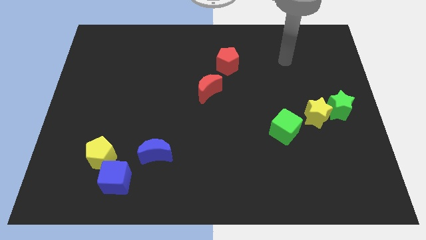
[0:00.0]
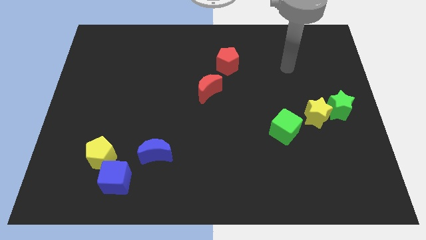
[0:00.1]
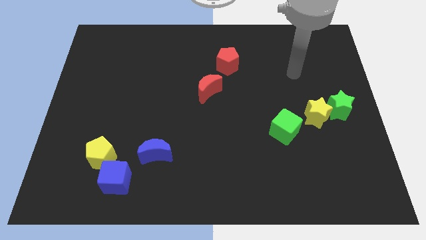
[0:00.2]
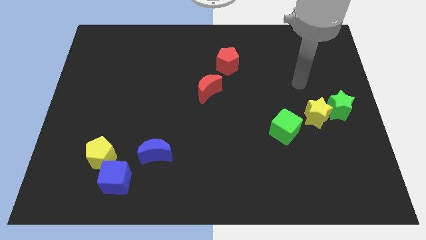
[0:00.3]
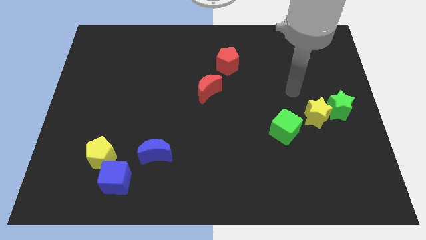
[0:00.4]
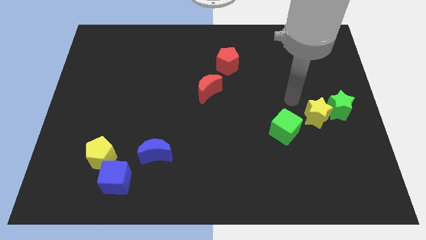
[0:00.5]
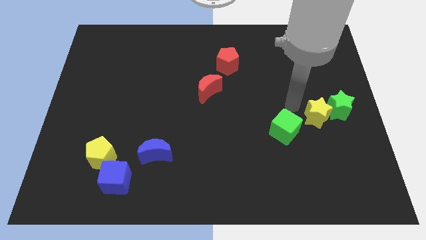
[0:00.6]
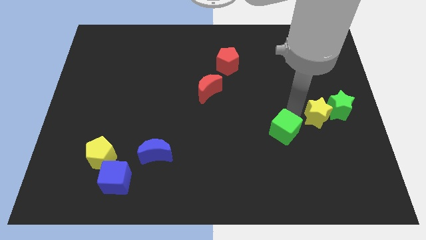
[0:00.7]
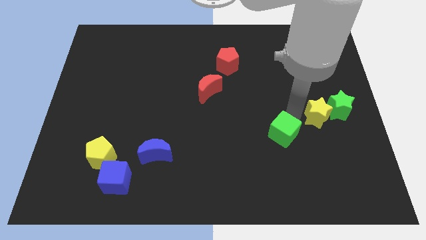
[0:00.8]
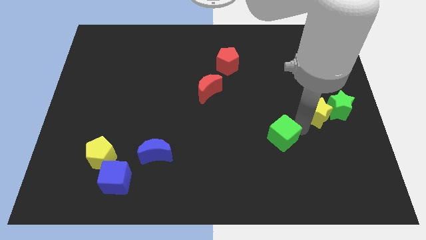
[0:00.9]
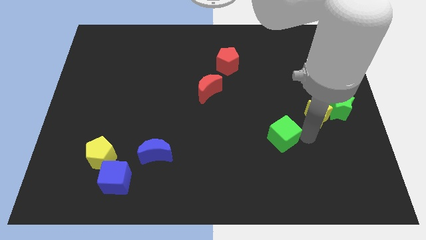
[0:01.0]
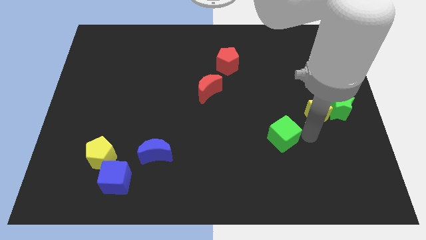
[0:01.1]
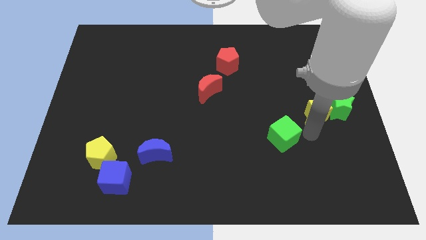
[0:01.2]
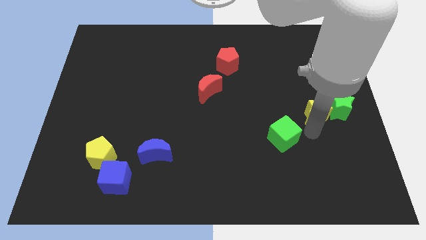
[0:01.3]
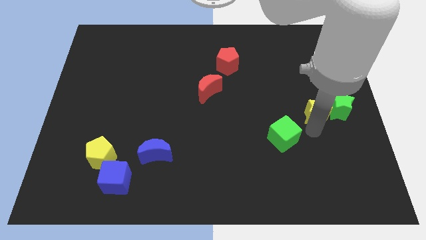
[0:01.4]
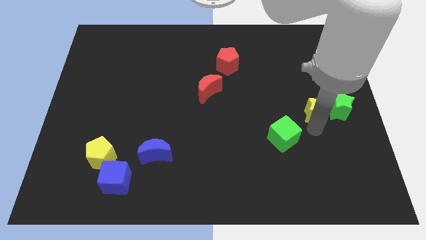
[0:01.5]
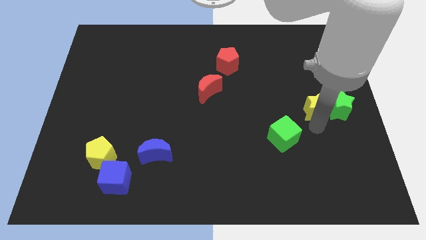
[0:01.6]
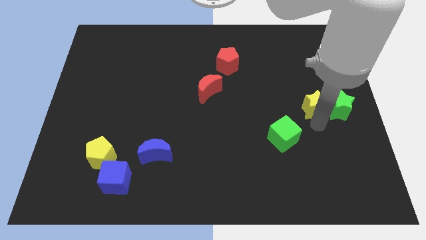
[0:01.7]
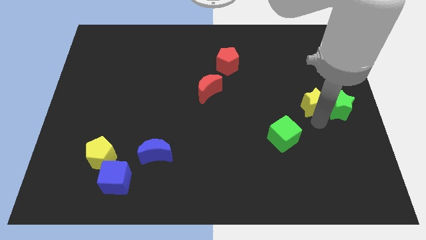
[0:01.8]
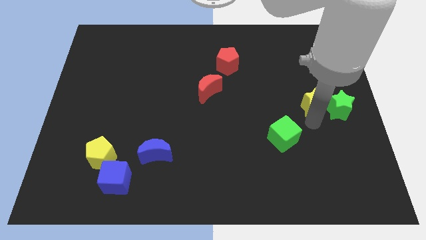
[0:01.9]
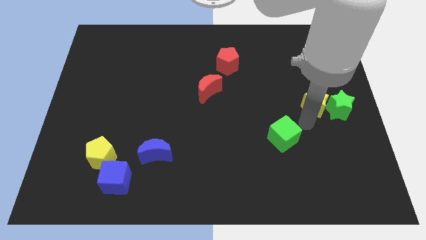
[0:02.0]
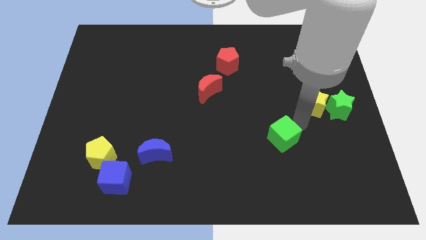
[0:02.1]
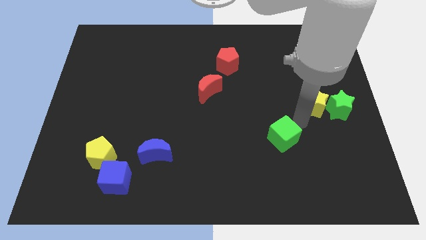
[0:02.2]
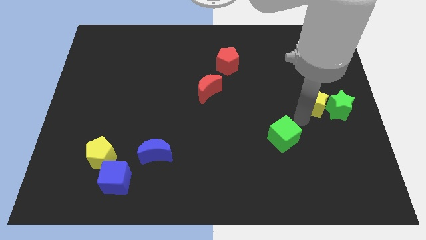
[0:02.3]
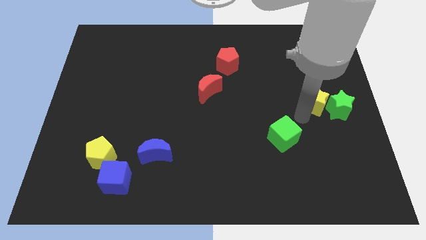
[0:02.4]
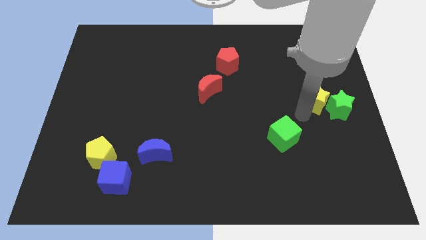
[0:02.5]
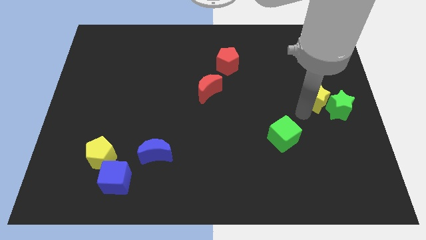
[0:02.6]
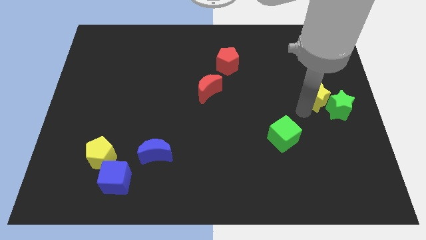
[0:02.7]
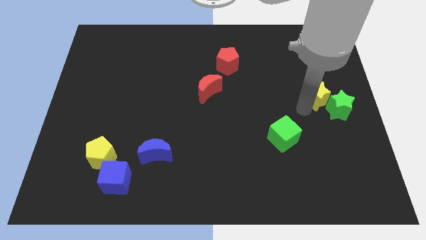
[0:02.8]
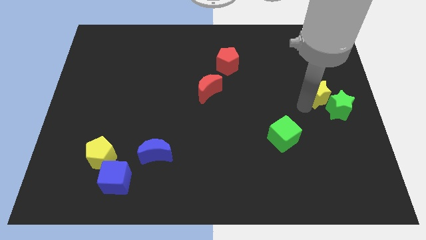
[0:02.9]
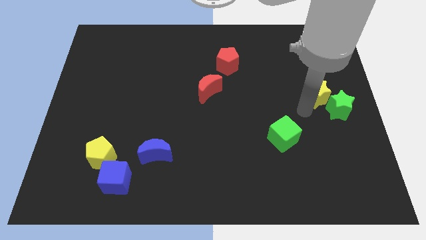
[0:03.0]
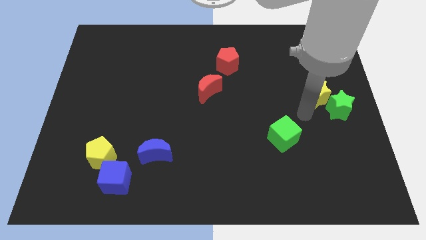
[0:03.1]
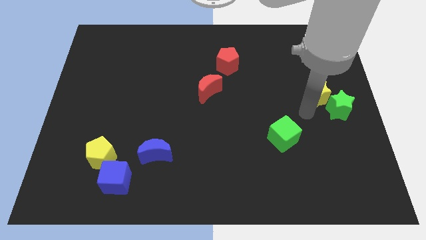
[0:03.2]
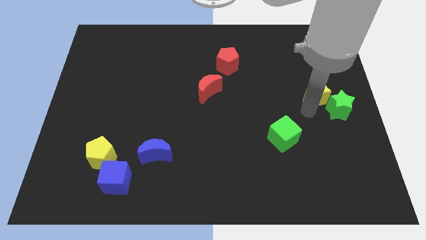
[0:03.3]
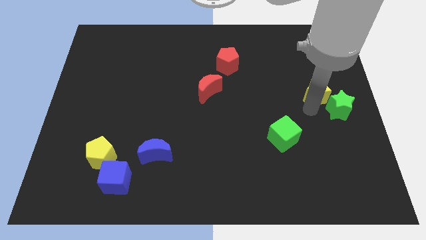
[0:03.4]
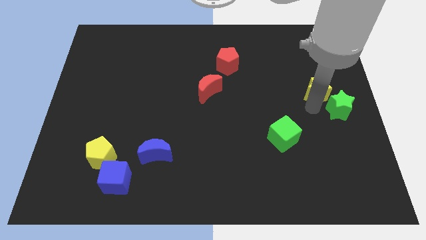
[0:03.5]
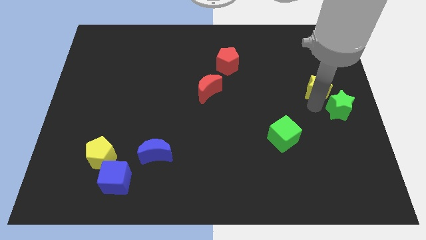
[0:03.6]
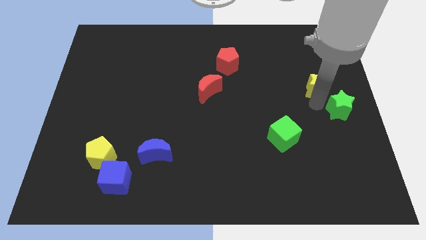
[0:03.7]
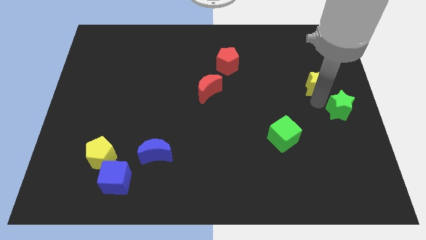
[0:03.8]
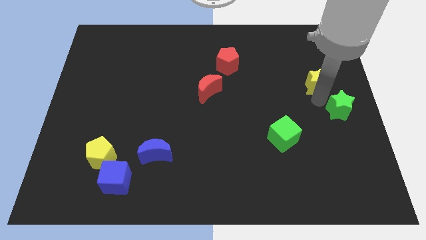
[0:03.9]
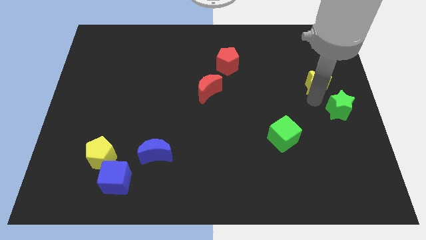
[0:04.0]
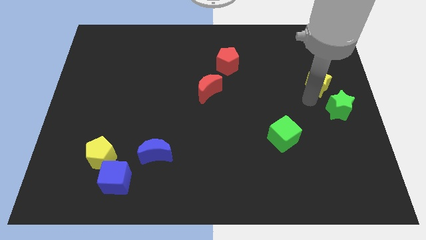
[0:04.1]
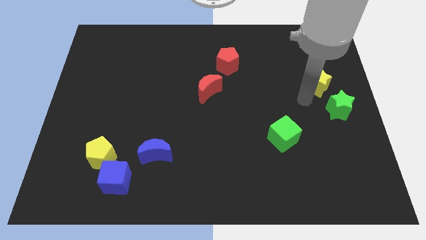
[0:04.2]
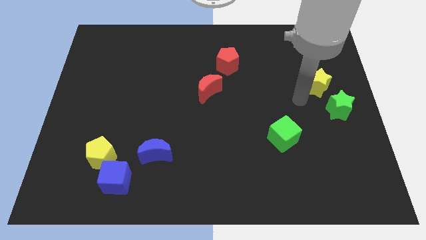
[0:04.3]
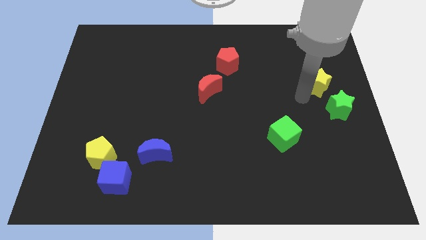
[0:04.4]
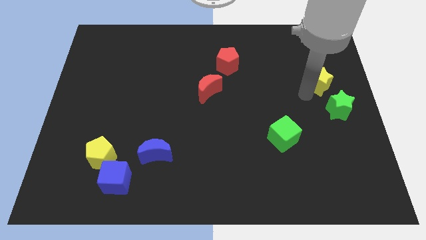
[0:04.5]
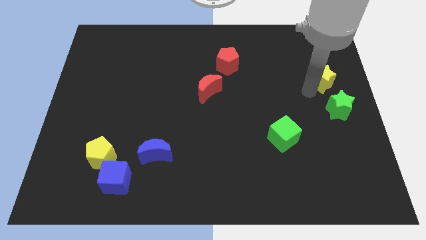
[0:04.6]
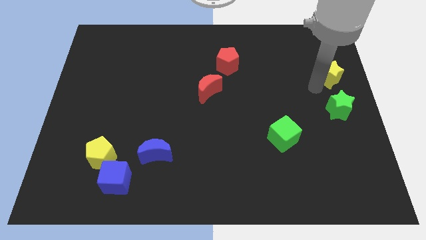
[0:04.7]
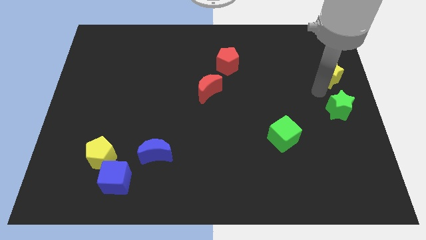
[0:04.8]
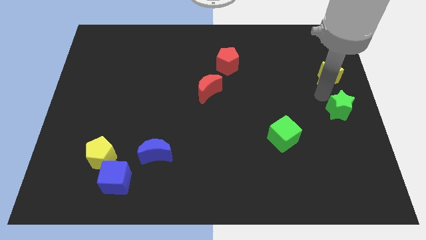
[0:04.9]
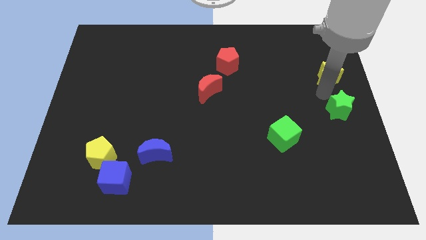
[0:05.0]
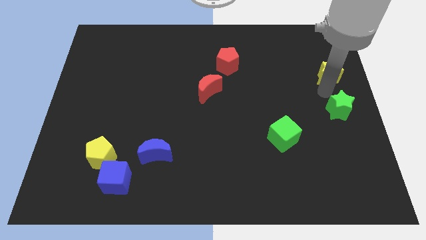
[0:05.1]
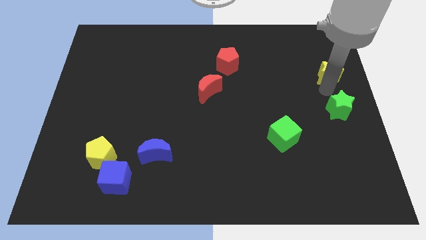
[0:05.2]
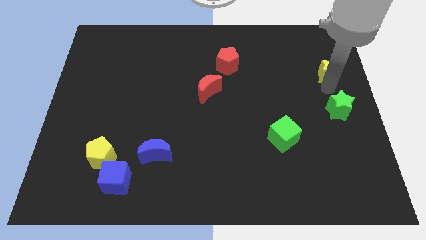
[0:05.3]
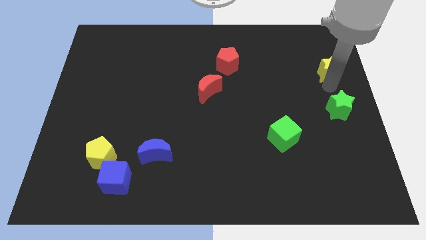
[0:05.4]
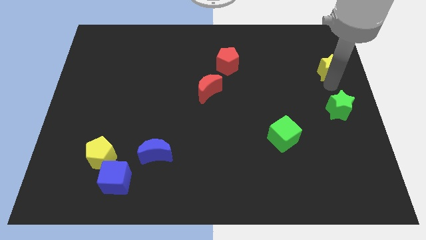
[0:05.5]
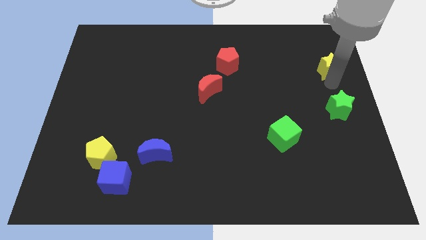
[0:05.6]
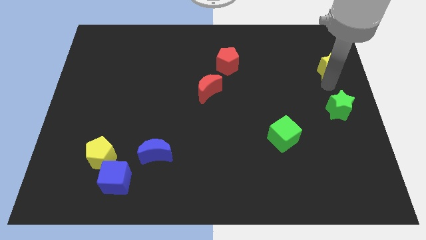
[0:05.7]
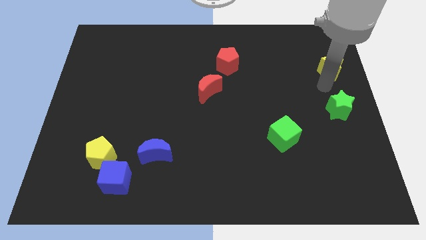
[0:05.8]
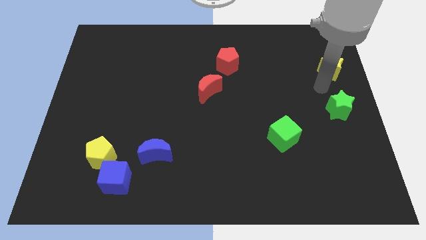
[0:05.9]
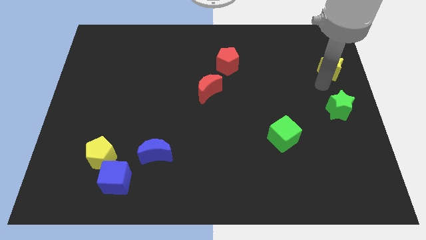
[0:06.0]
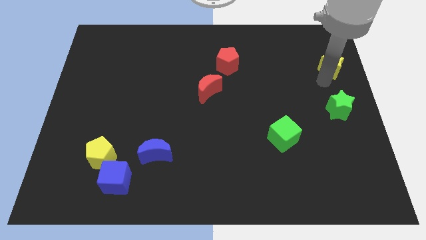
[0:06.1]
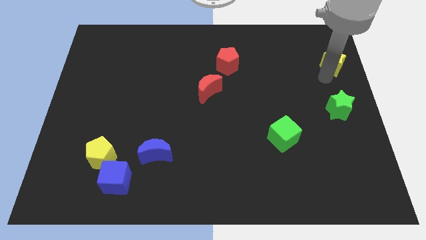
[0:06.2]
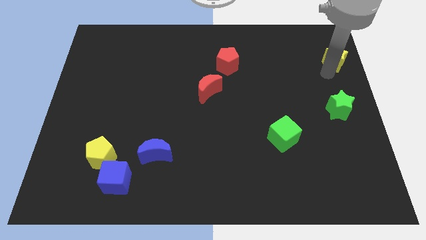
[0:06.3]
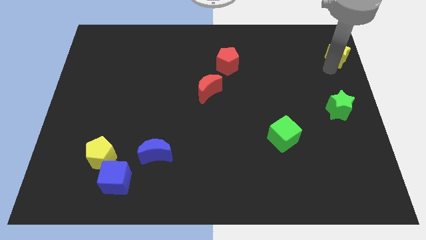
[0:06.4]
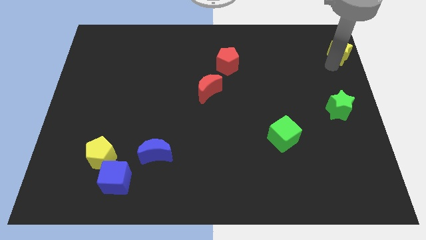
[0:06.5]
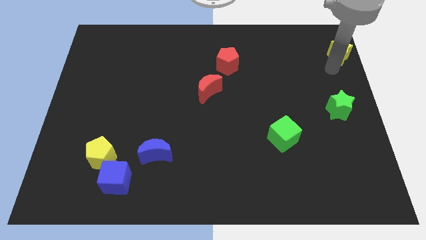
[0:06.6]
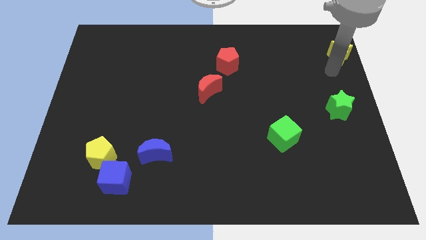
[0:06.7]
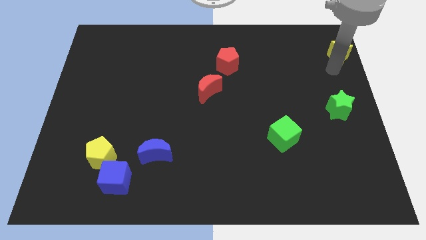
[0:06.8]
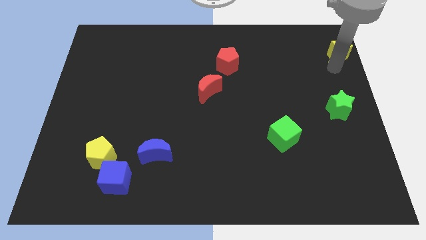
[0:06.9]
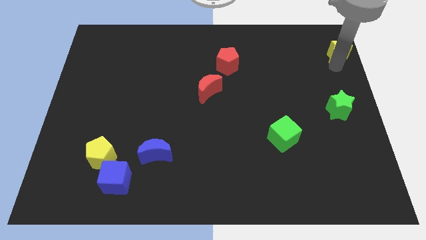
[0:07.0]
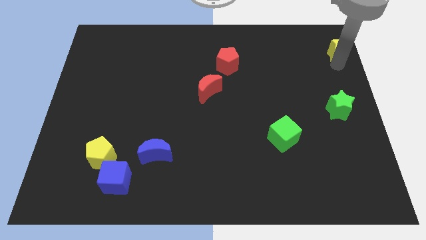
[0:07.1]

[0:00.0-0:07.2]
slide the yellow star to the top right corner
